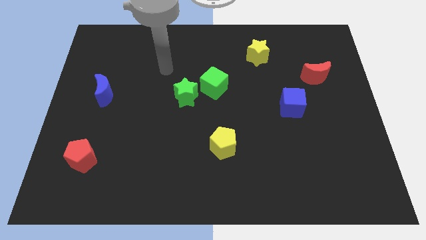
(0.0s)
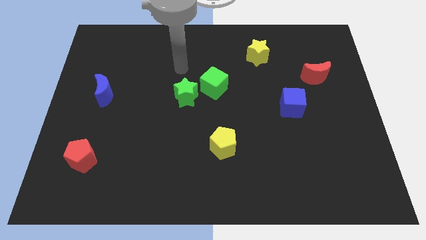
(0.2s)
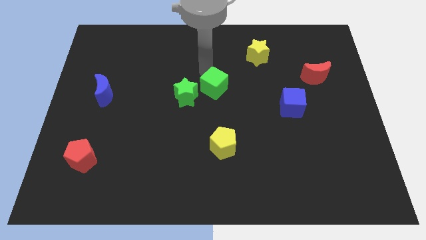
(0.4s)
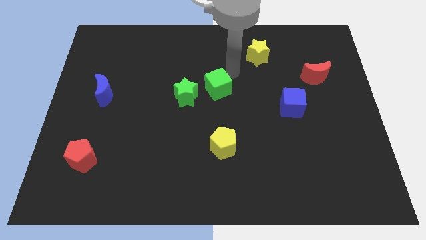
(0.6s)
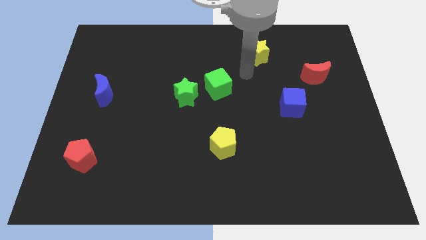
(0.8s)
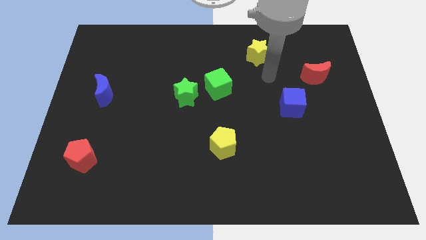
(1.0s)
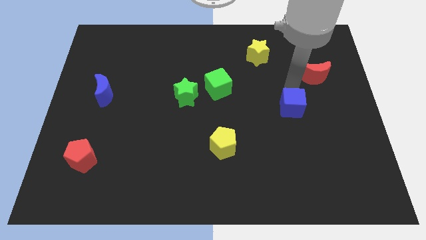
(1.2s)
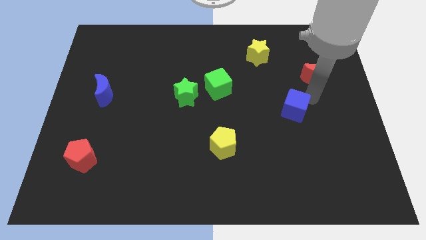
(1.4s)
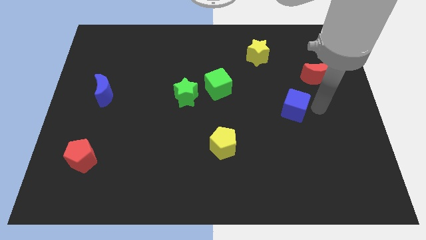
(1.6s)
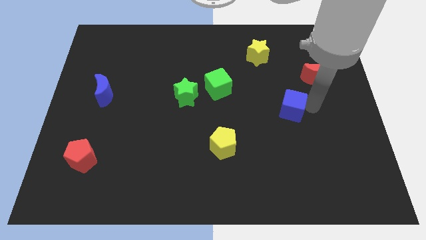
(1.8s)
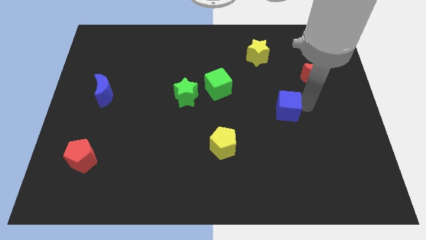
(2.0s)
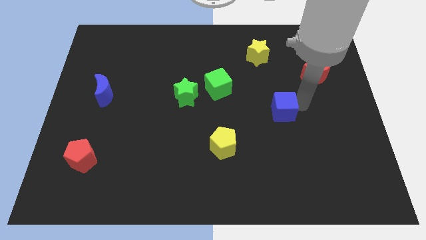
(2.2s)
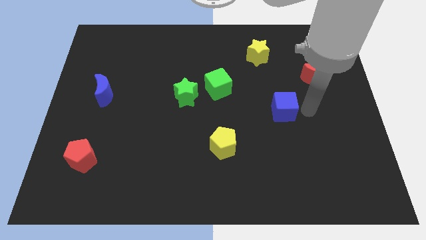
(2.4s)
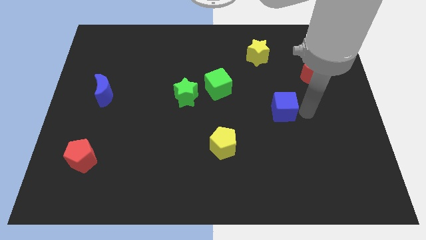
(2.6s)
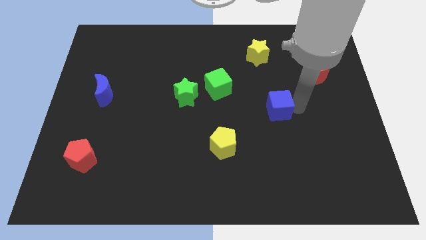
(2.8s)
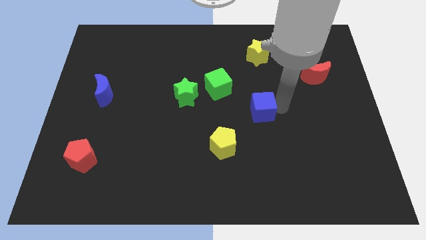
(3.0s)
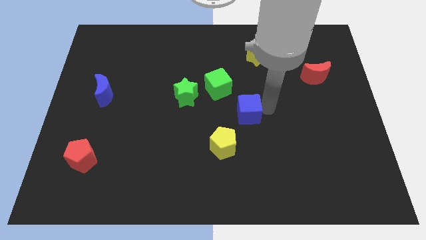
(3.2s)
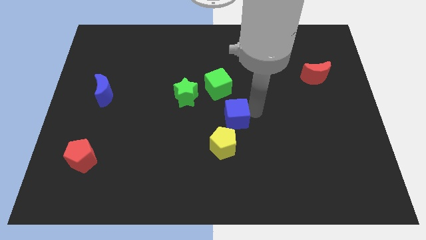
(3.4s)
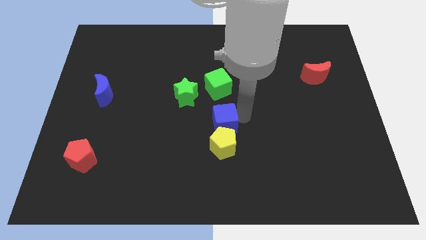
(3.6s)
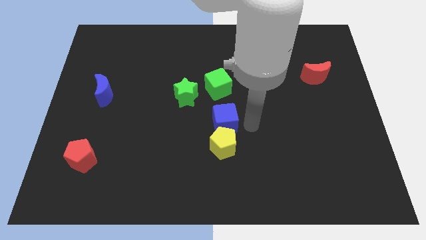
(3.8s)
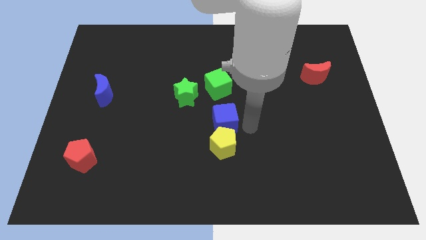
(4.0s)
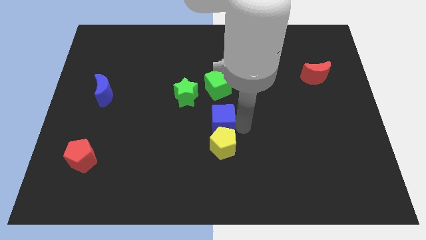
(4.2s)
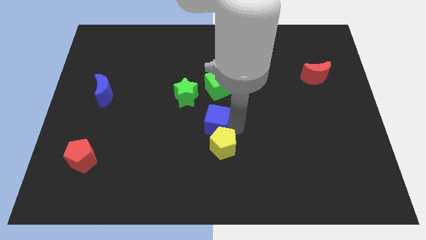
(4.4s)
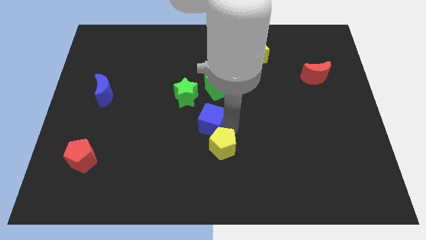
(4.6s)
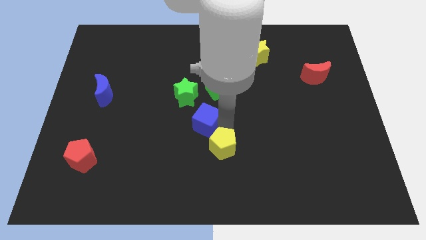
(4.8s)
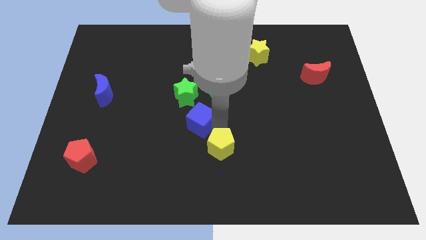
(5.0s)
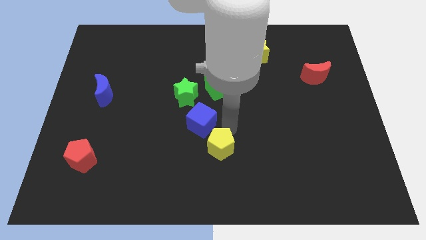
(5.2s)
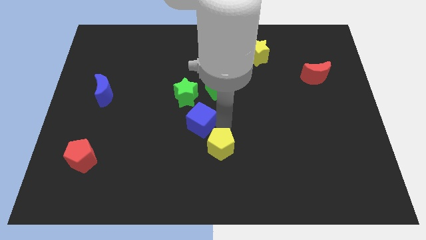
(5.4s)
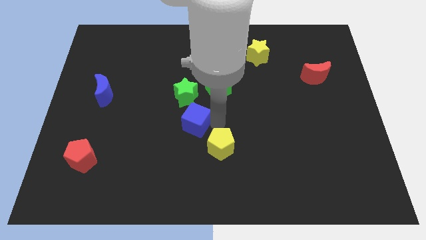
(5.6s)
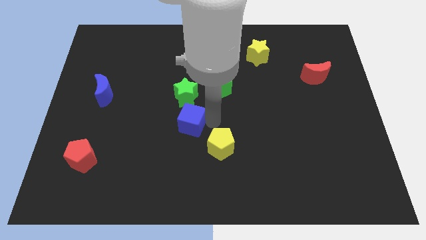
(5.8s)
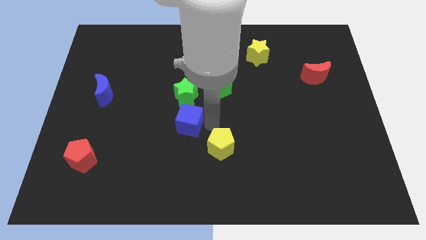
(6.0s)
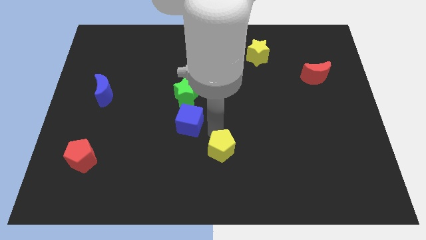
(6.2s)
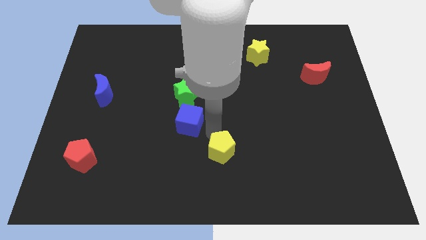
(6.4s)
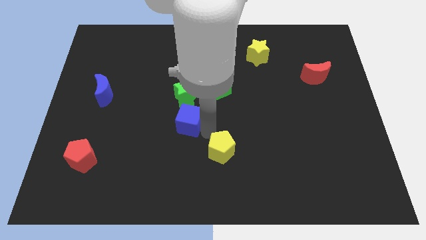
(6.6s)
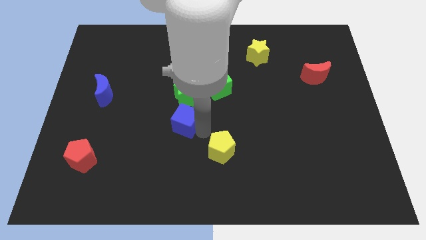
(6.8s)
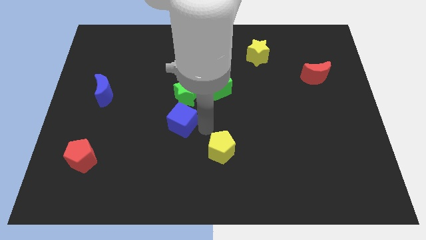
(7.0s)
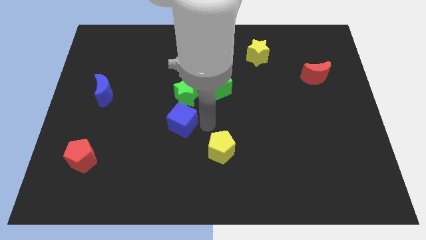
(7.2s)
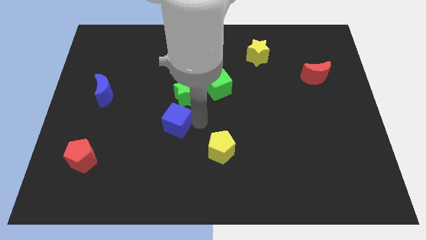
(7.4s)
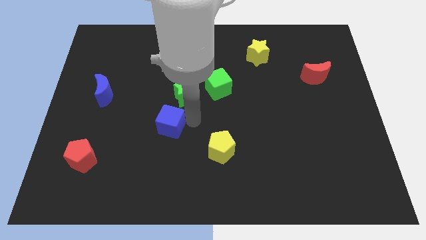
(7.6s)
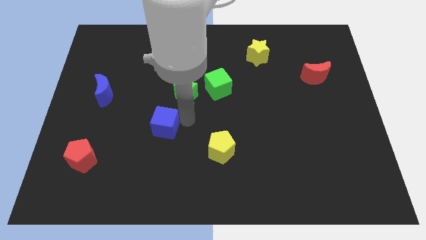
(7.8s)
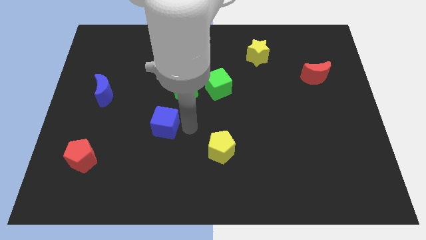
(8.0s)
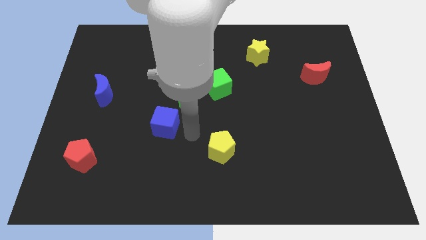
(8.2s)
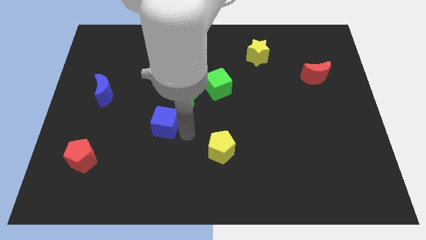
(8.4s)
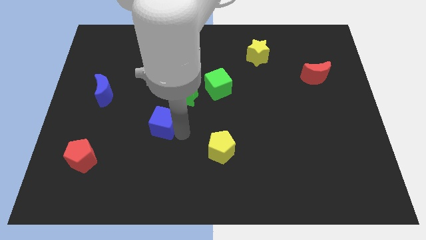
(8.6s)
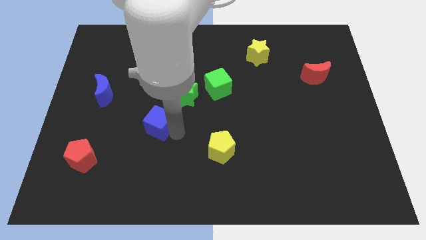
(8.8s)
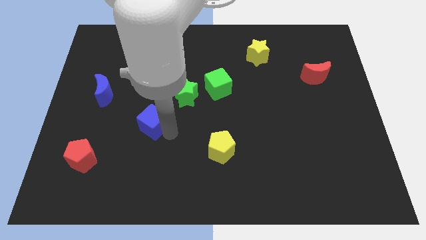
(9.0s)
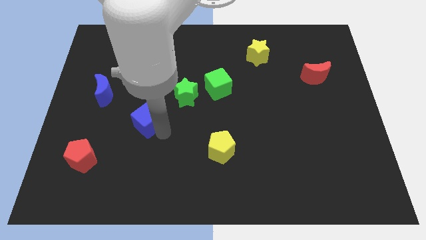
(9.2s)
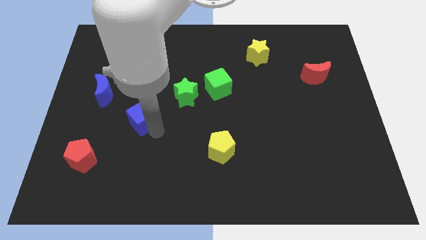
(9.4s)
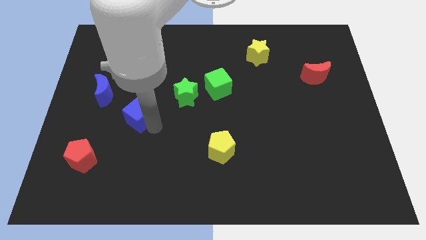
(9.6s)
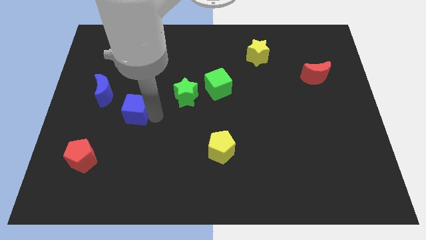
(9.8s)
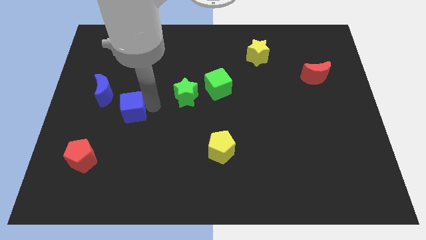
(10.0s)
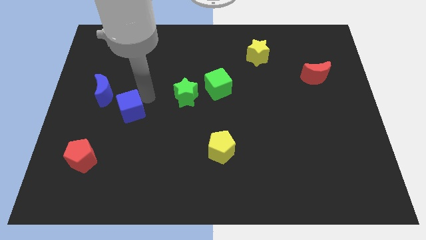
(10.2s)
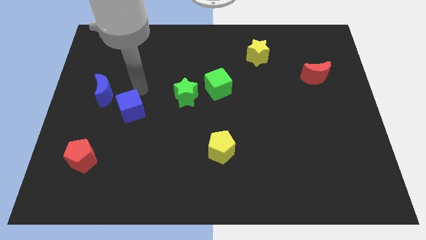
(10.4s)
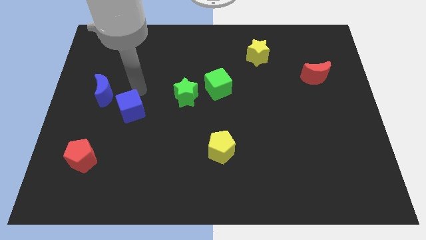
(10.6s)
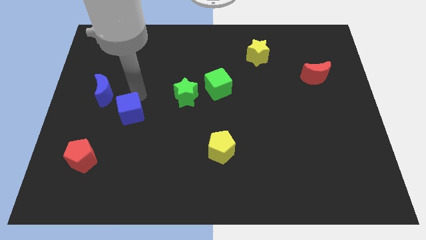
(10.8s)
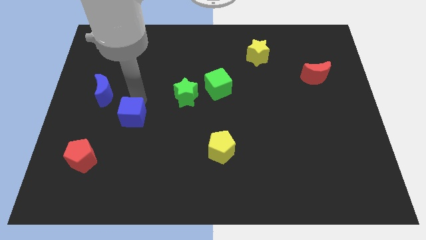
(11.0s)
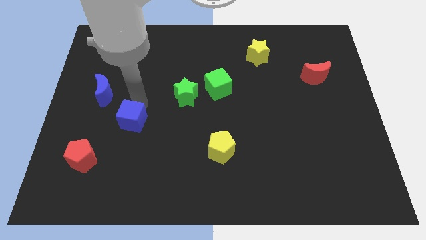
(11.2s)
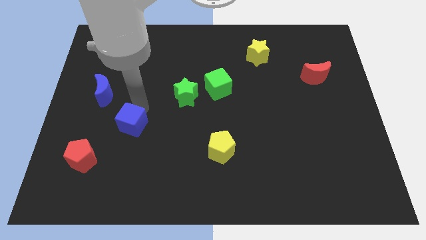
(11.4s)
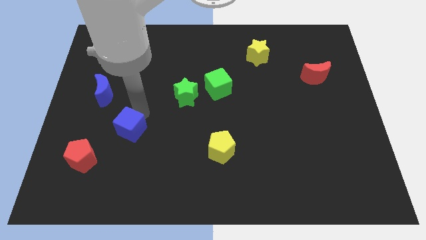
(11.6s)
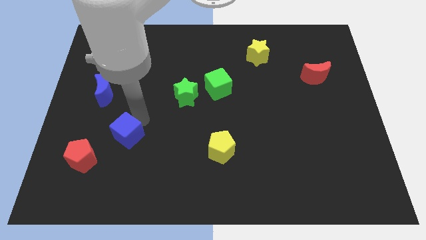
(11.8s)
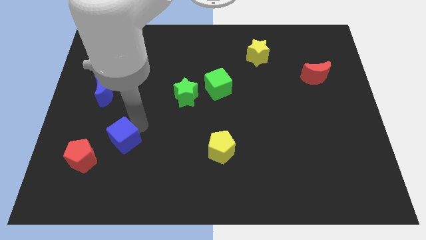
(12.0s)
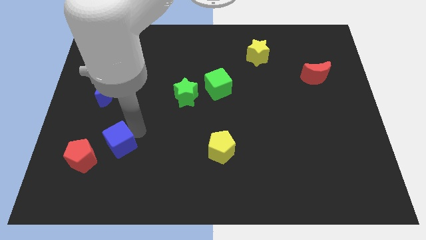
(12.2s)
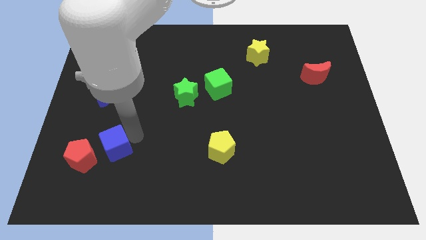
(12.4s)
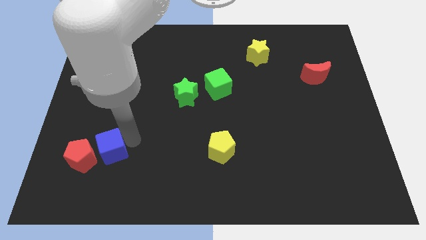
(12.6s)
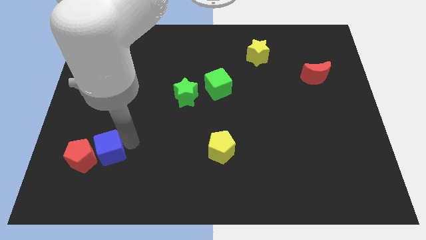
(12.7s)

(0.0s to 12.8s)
slide the blue cube close to the red pentagon
